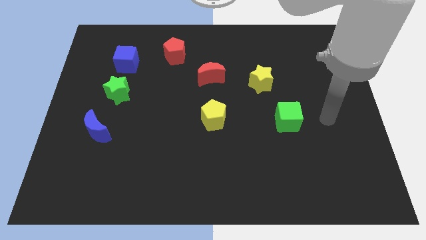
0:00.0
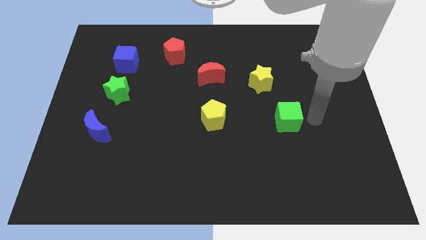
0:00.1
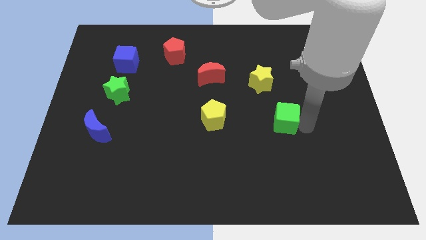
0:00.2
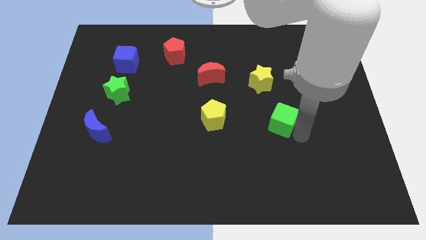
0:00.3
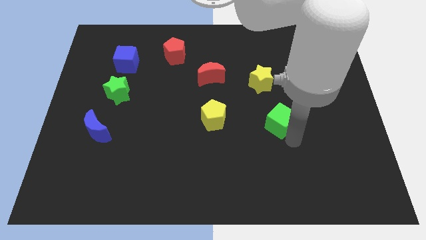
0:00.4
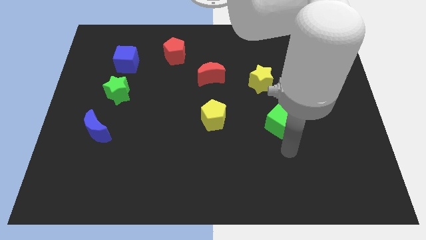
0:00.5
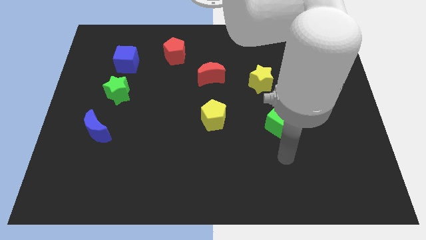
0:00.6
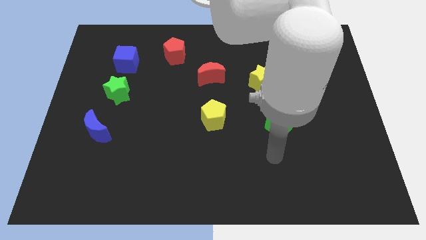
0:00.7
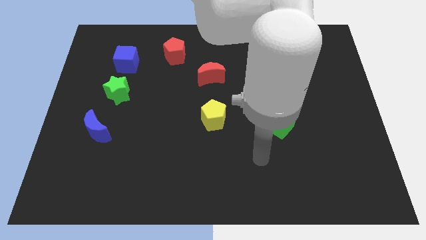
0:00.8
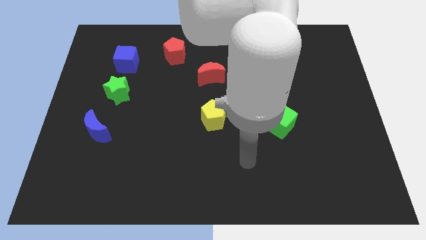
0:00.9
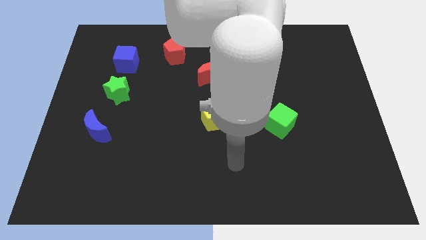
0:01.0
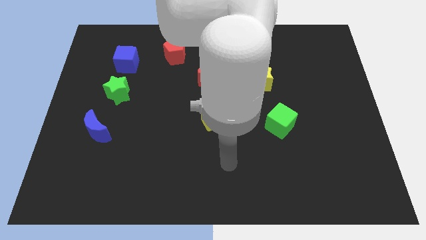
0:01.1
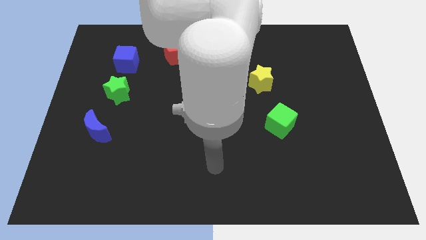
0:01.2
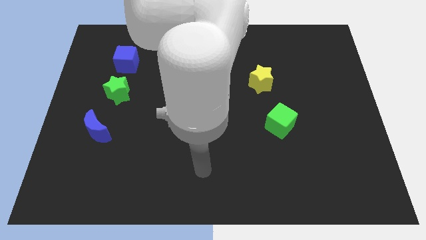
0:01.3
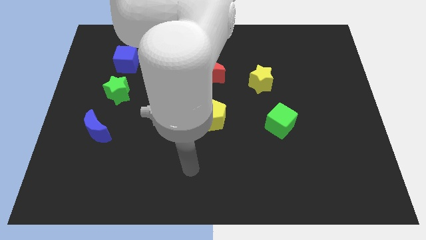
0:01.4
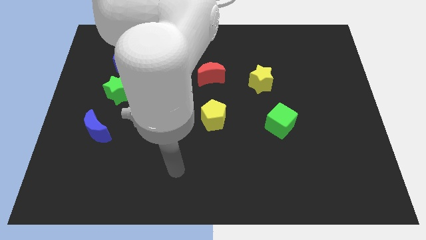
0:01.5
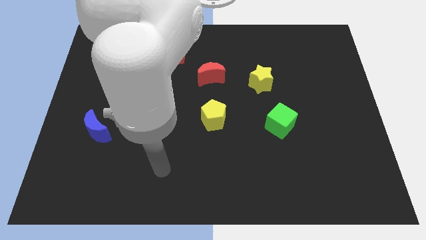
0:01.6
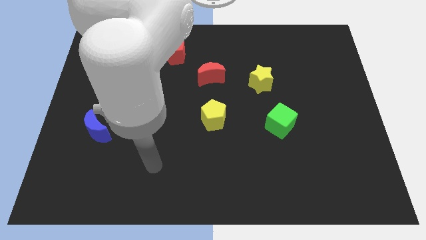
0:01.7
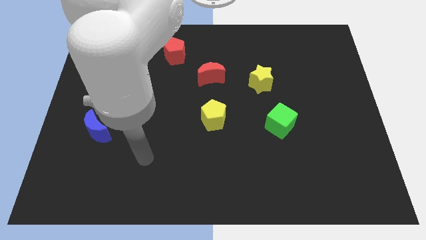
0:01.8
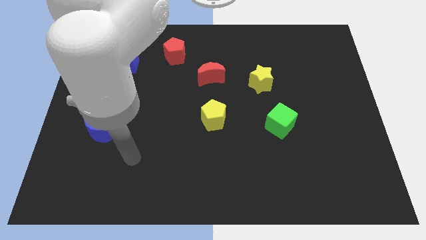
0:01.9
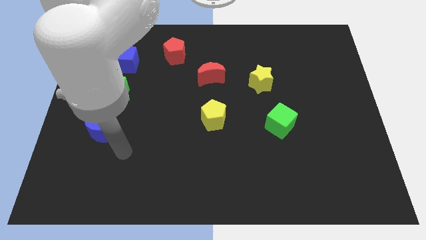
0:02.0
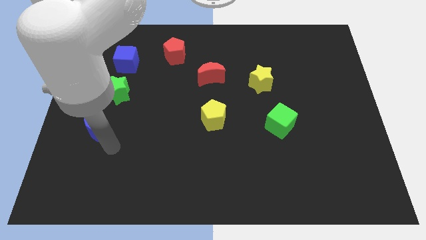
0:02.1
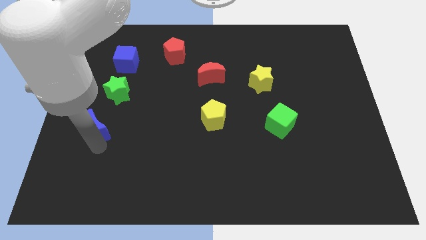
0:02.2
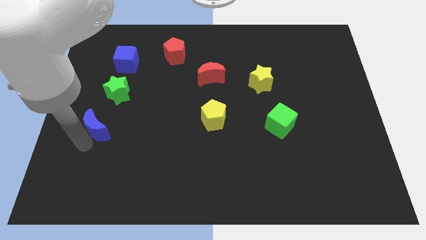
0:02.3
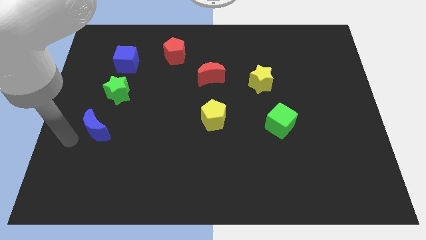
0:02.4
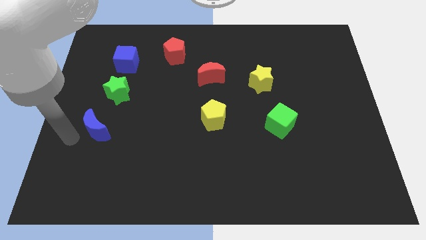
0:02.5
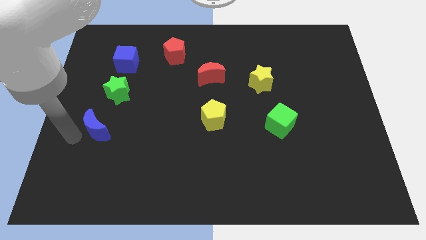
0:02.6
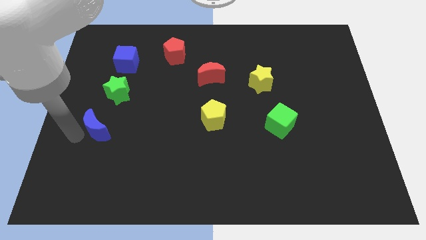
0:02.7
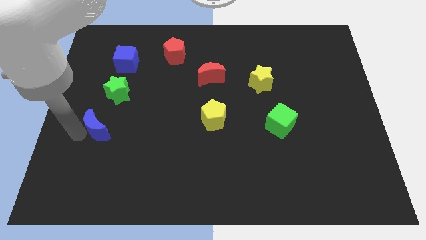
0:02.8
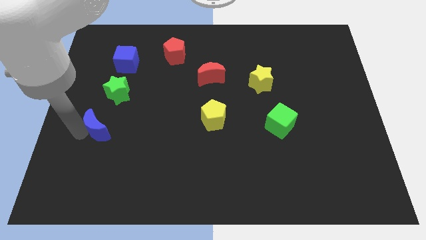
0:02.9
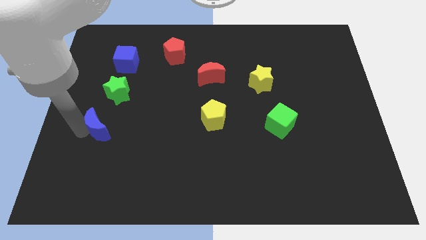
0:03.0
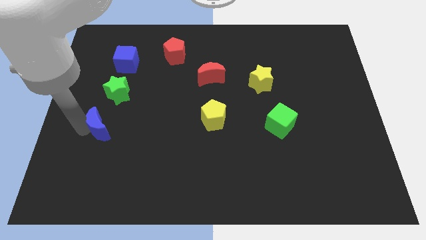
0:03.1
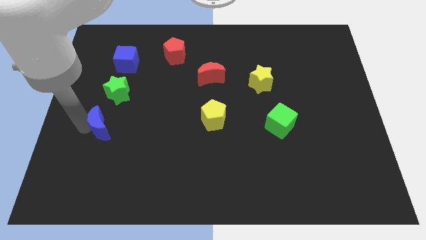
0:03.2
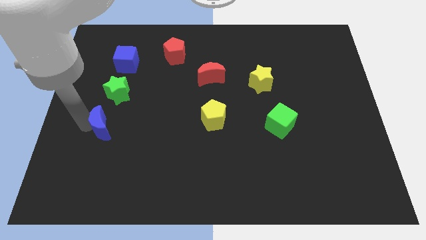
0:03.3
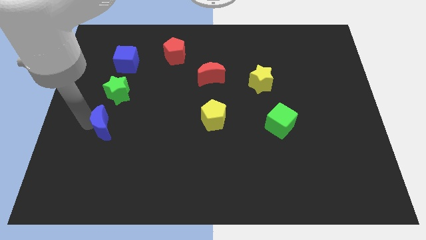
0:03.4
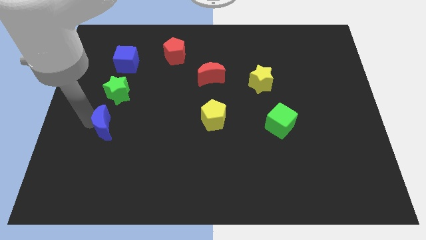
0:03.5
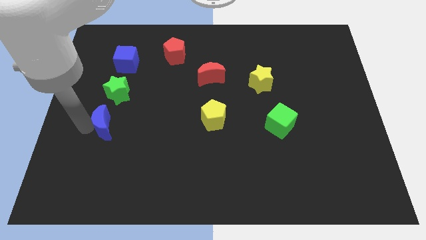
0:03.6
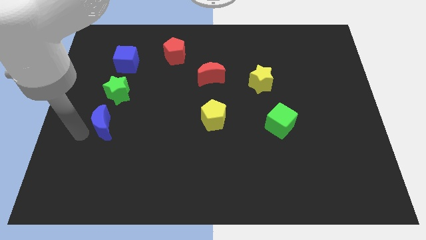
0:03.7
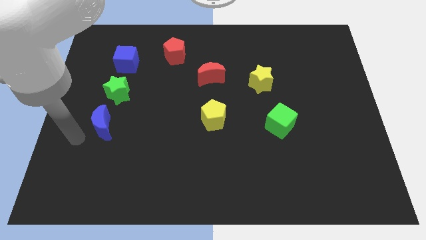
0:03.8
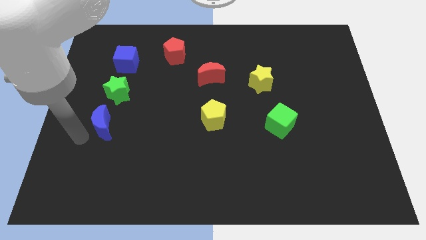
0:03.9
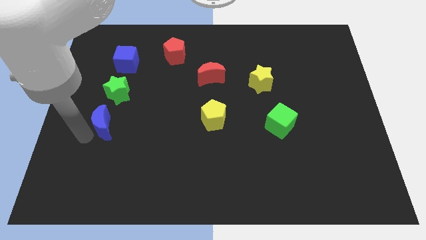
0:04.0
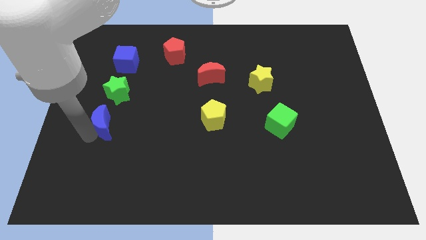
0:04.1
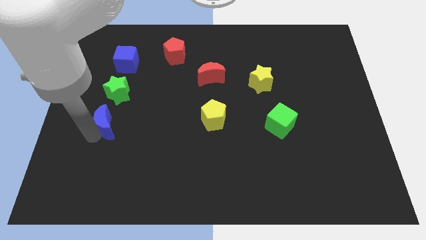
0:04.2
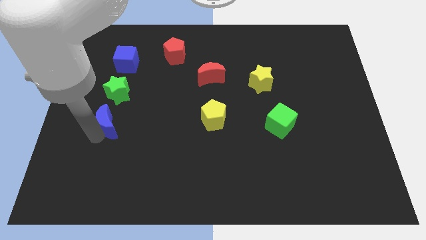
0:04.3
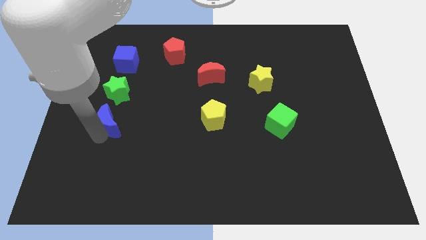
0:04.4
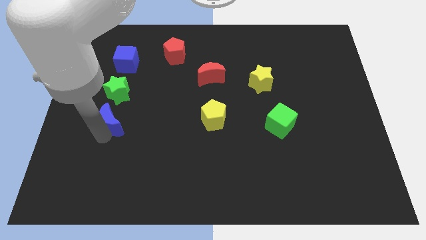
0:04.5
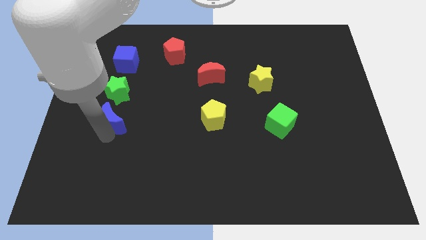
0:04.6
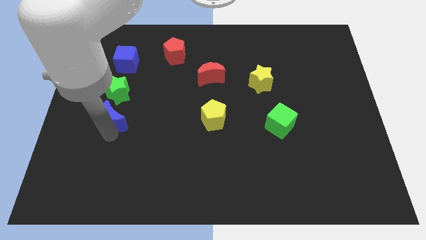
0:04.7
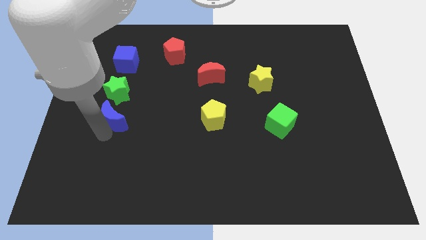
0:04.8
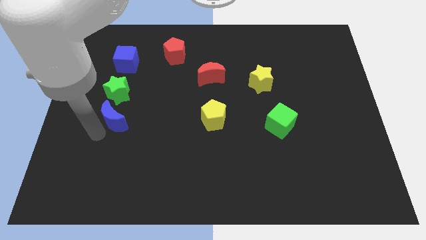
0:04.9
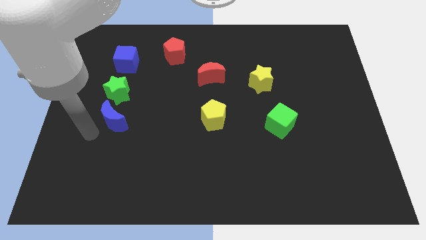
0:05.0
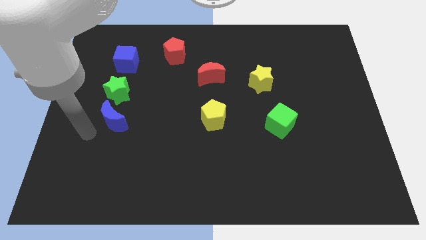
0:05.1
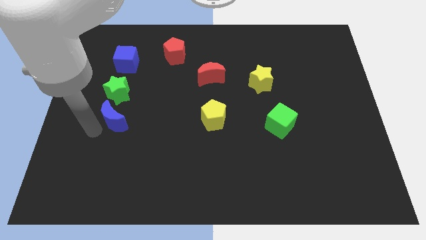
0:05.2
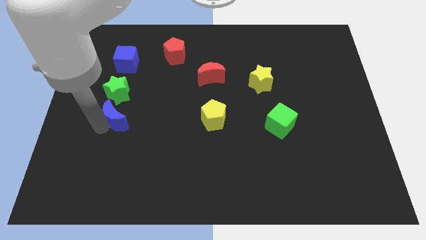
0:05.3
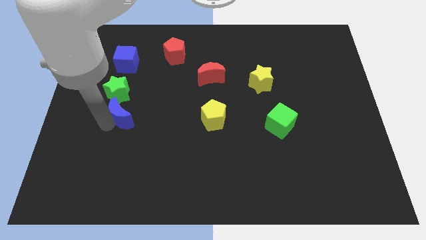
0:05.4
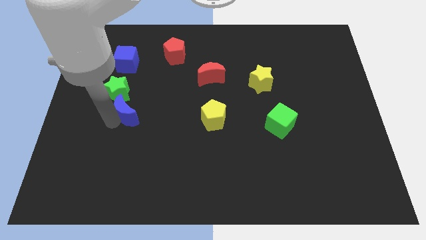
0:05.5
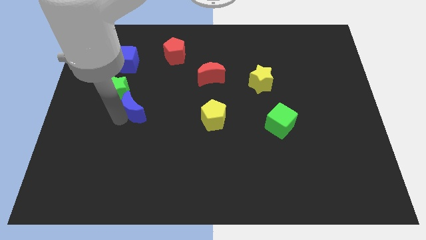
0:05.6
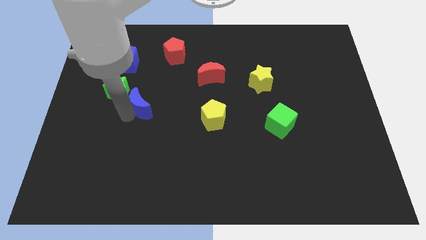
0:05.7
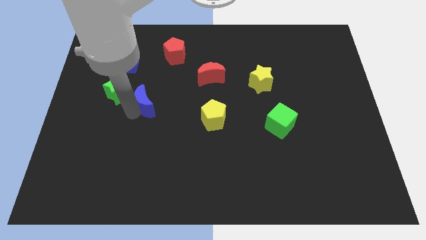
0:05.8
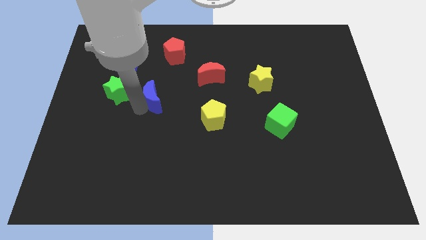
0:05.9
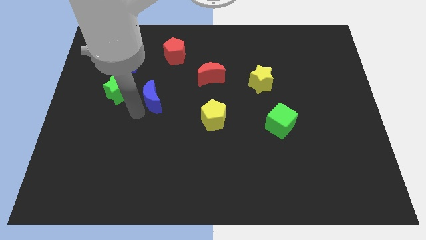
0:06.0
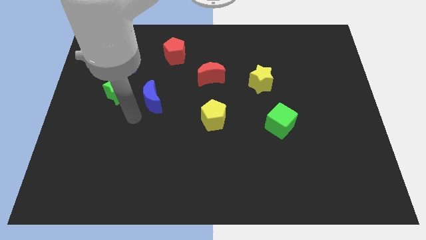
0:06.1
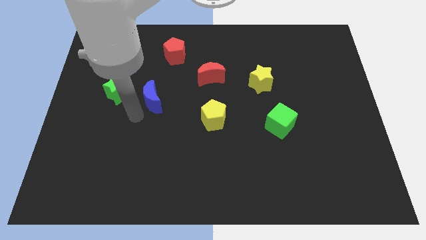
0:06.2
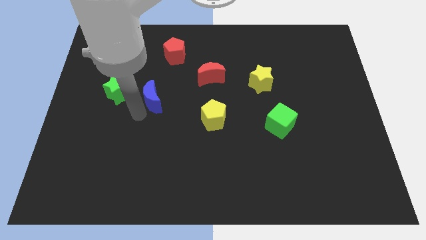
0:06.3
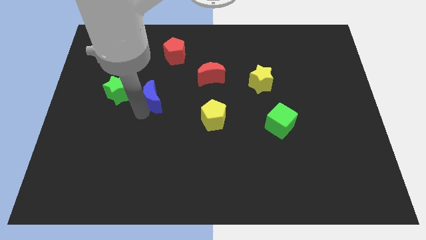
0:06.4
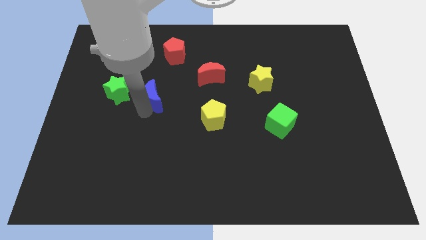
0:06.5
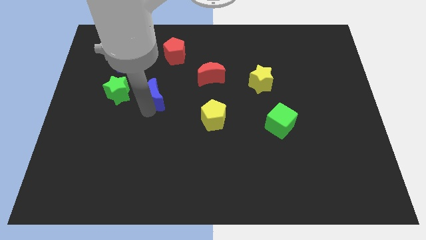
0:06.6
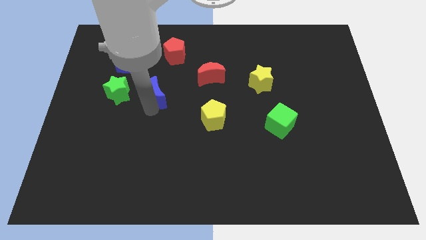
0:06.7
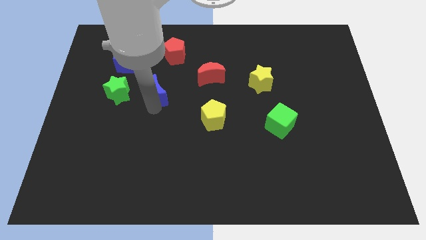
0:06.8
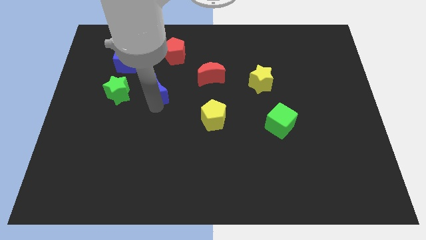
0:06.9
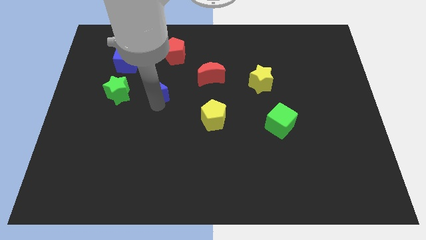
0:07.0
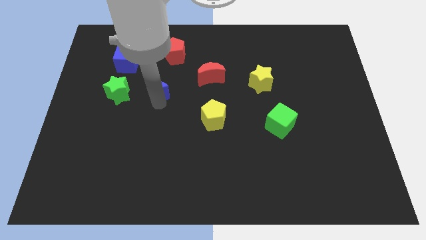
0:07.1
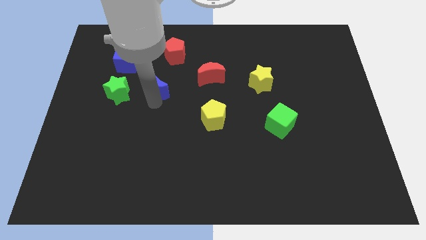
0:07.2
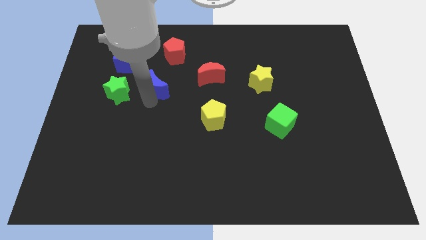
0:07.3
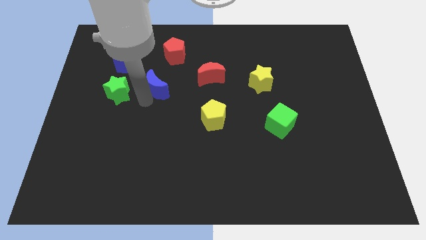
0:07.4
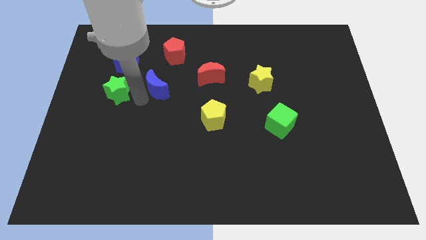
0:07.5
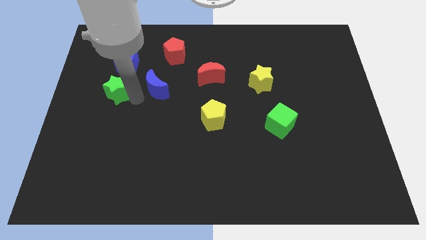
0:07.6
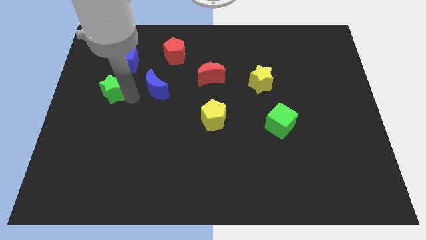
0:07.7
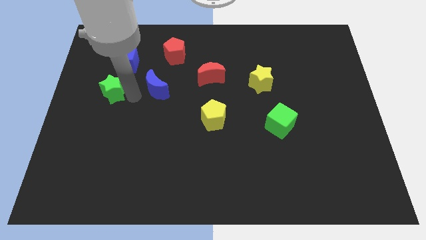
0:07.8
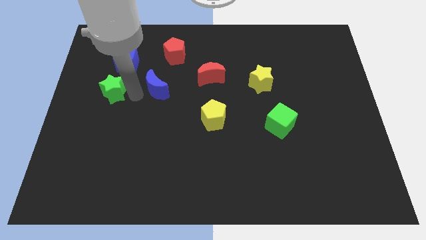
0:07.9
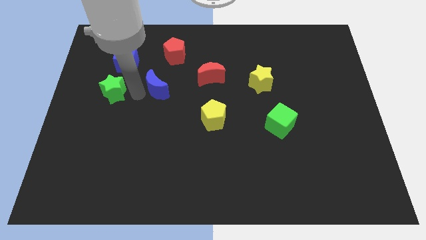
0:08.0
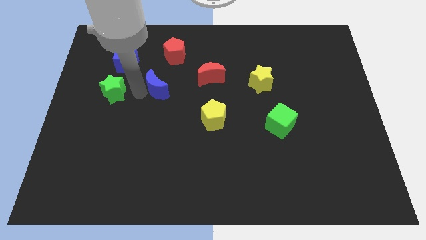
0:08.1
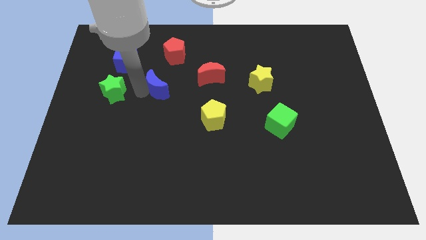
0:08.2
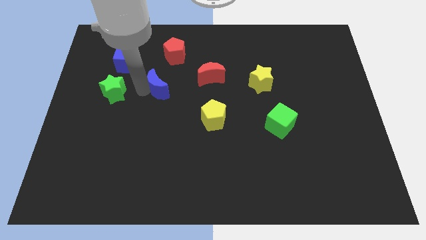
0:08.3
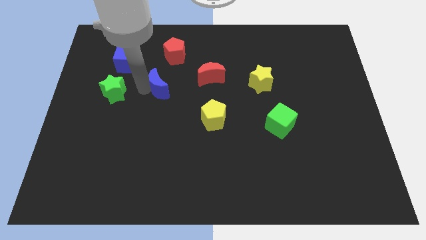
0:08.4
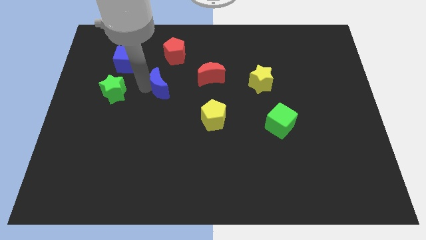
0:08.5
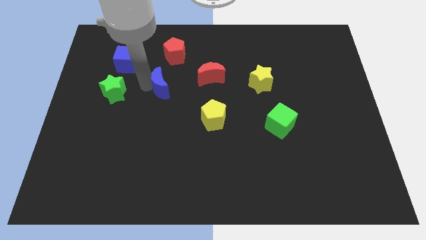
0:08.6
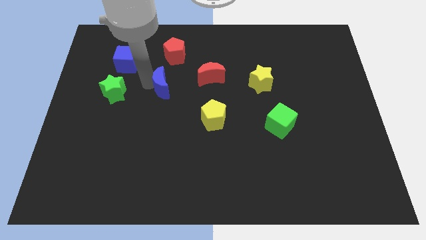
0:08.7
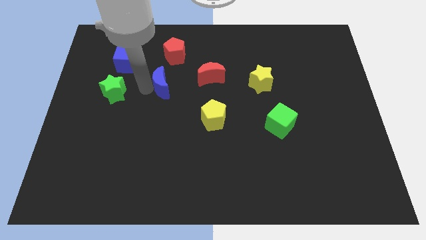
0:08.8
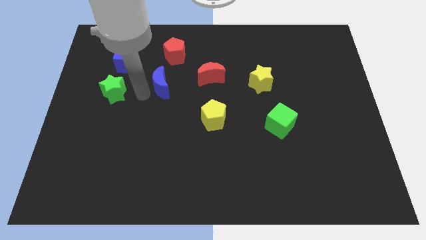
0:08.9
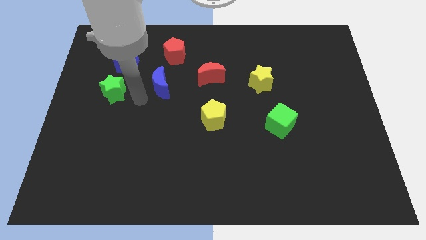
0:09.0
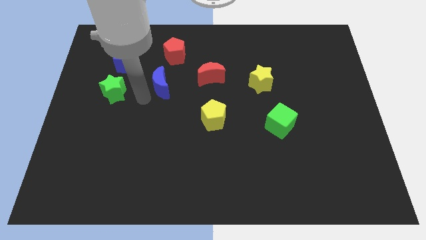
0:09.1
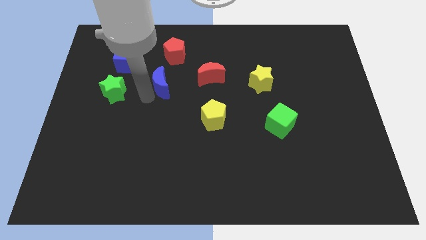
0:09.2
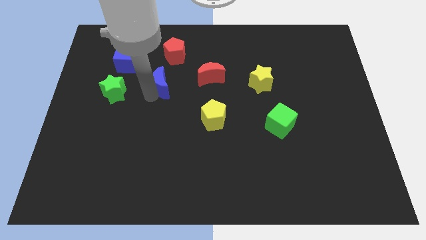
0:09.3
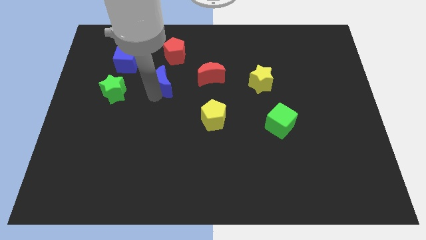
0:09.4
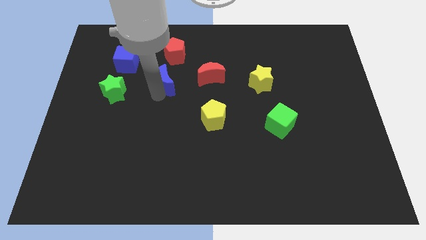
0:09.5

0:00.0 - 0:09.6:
move the blue moon up and right
